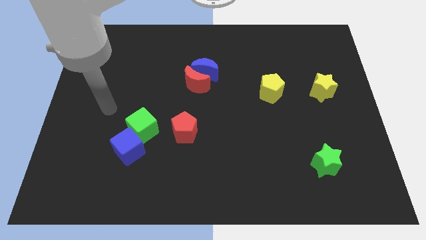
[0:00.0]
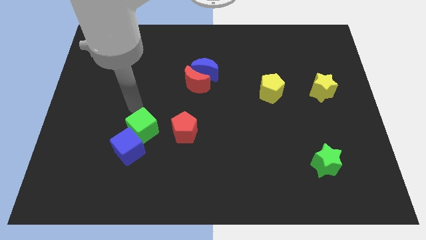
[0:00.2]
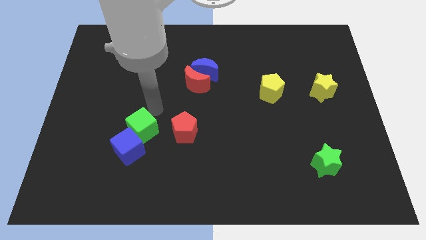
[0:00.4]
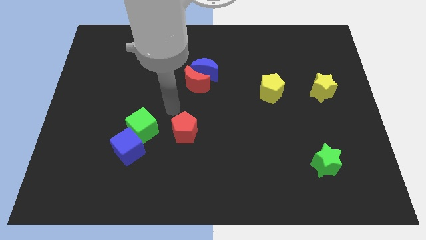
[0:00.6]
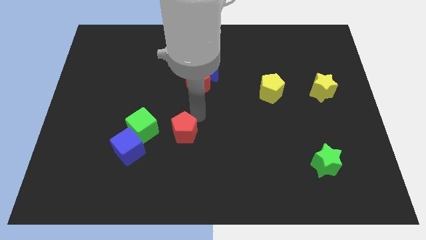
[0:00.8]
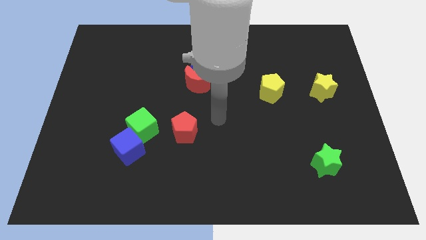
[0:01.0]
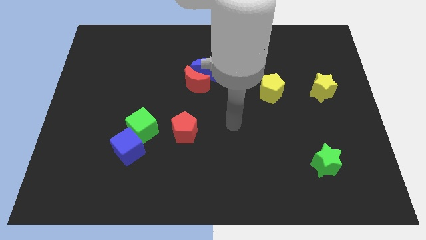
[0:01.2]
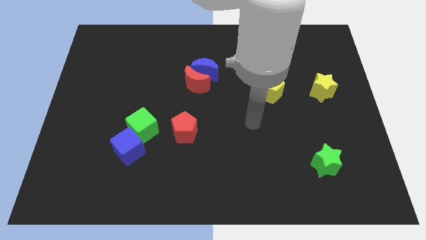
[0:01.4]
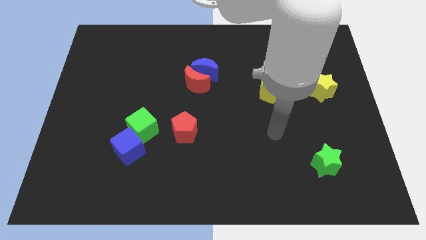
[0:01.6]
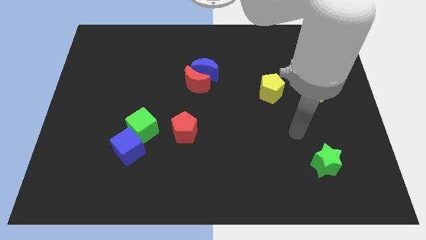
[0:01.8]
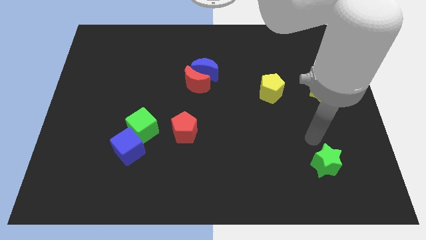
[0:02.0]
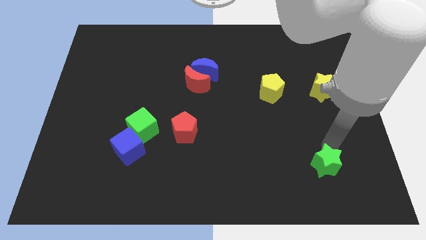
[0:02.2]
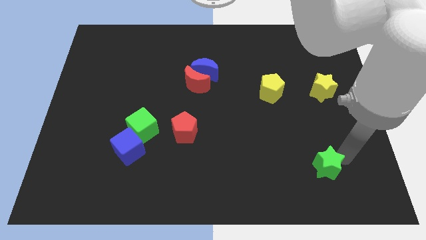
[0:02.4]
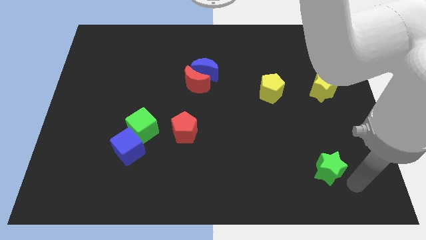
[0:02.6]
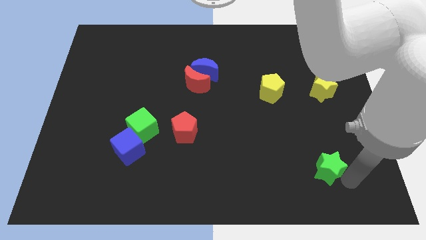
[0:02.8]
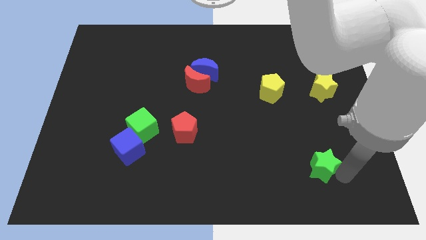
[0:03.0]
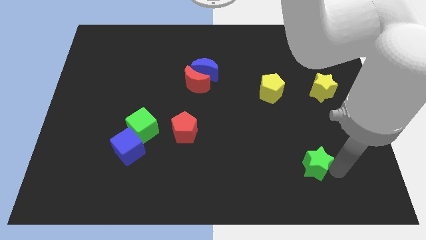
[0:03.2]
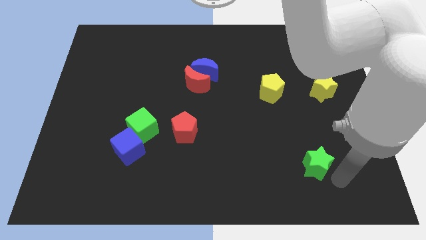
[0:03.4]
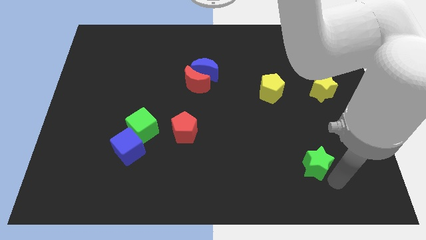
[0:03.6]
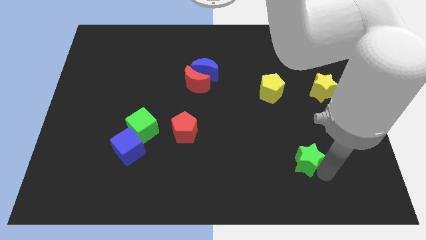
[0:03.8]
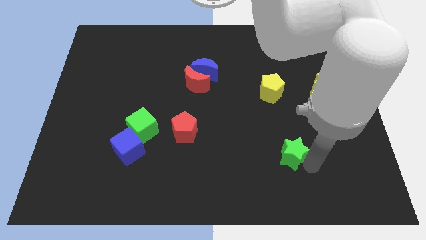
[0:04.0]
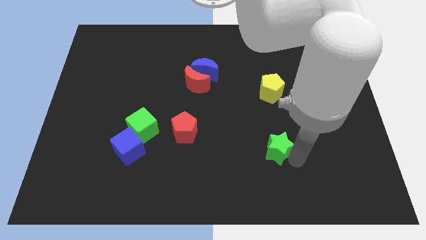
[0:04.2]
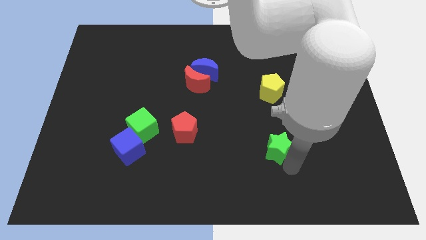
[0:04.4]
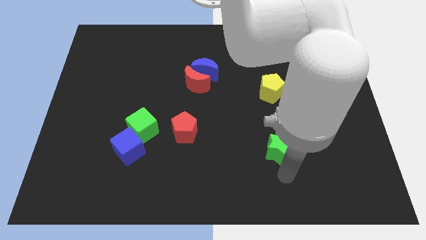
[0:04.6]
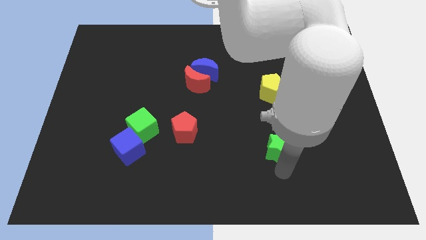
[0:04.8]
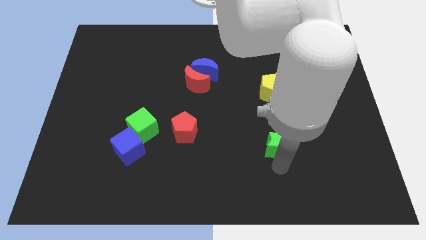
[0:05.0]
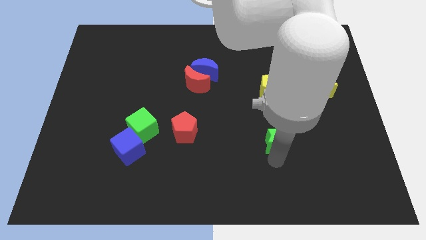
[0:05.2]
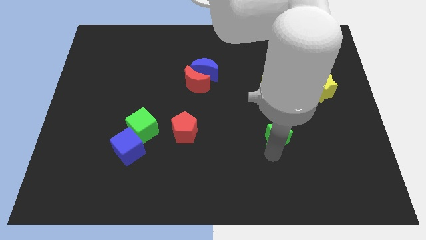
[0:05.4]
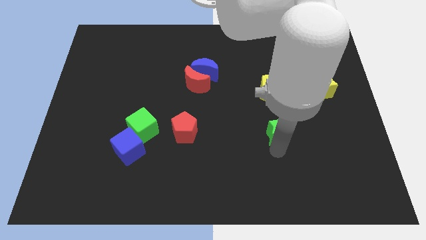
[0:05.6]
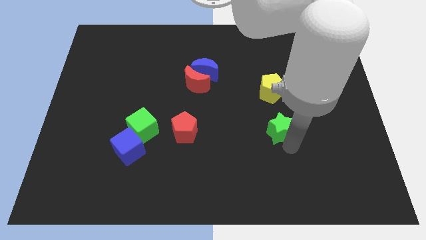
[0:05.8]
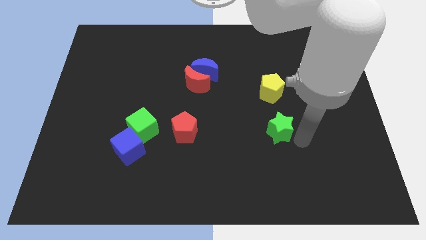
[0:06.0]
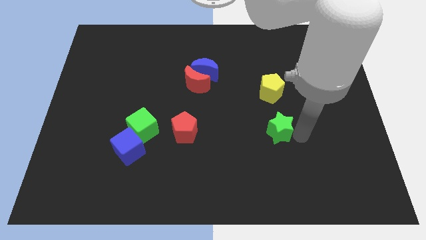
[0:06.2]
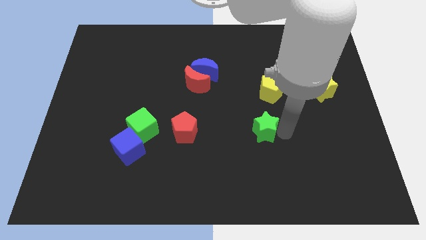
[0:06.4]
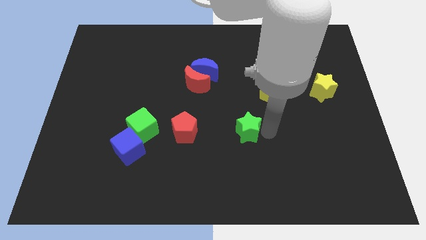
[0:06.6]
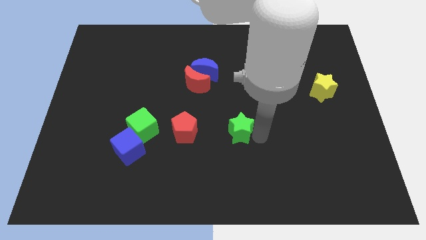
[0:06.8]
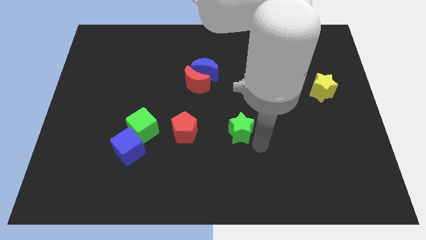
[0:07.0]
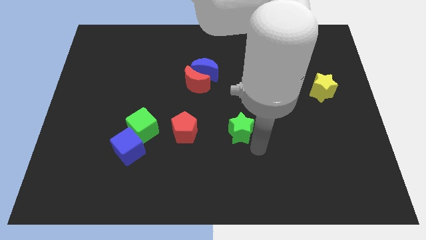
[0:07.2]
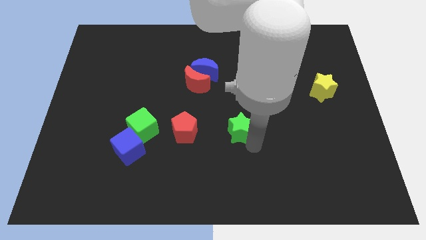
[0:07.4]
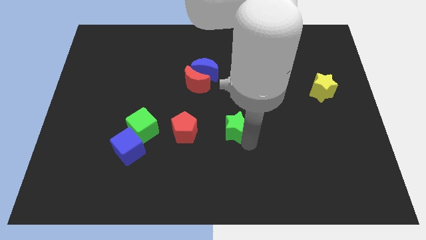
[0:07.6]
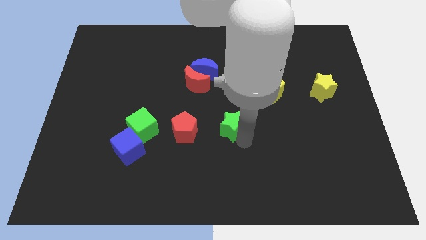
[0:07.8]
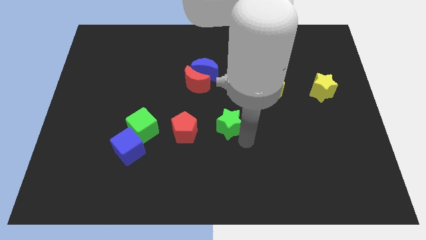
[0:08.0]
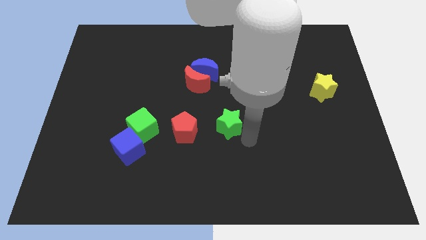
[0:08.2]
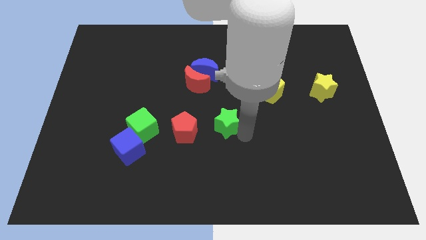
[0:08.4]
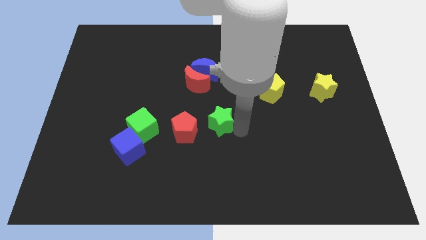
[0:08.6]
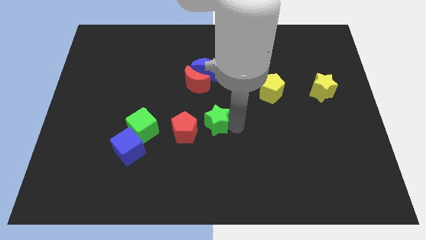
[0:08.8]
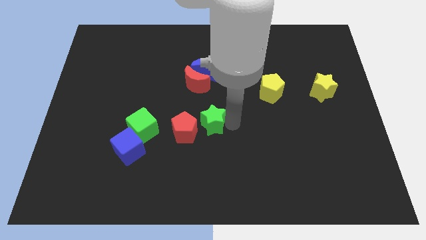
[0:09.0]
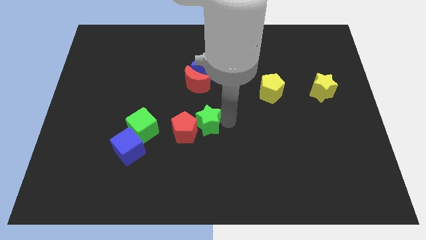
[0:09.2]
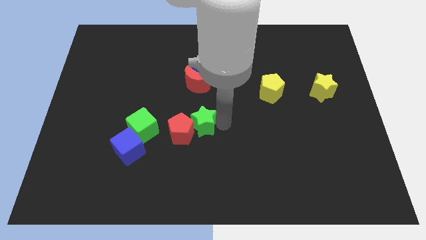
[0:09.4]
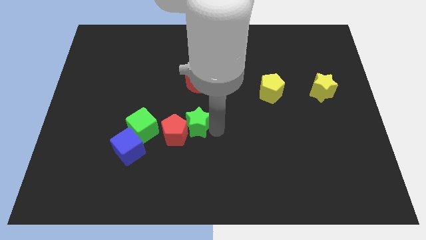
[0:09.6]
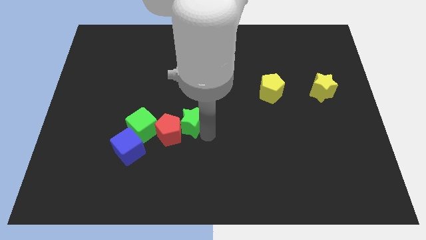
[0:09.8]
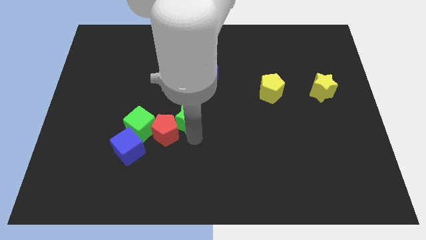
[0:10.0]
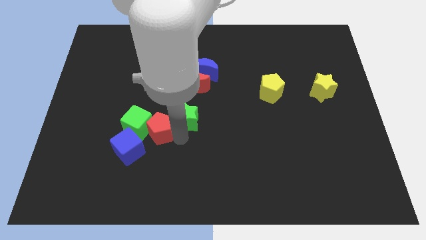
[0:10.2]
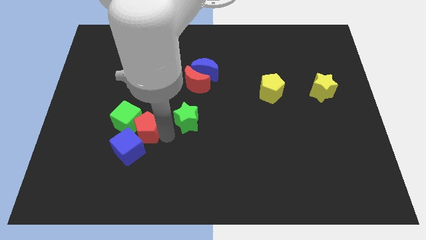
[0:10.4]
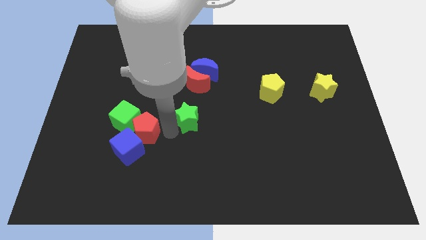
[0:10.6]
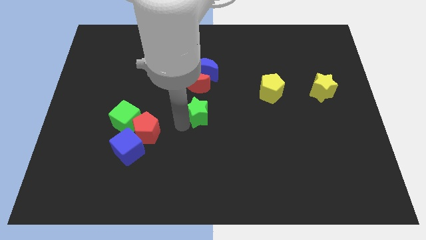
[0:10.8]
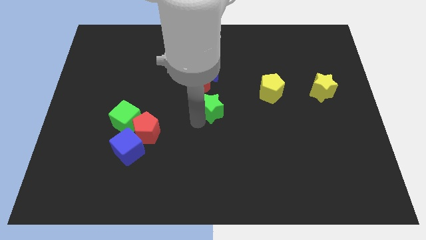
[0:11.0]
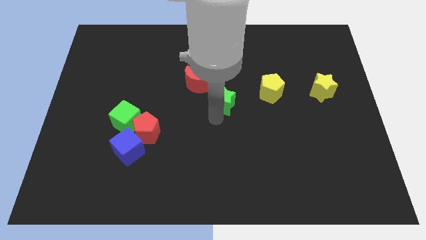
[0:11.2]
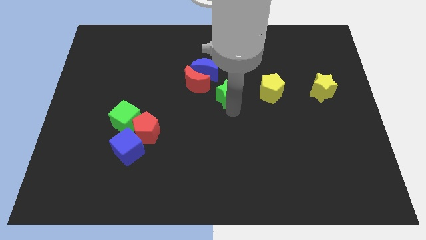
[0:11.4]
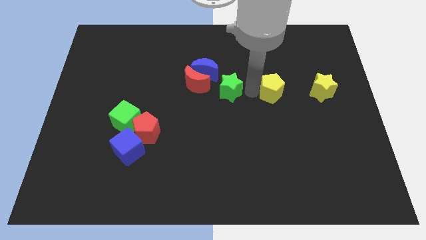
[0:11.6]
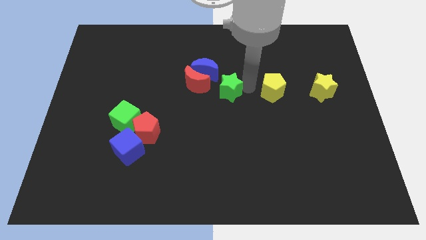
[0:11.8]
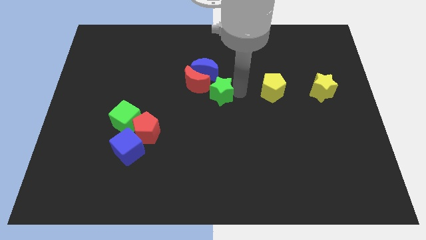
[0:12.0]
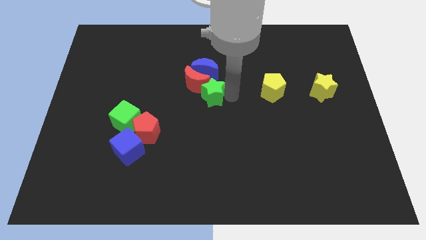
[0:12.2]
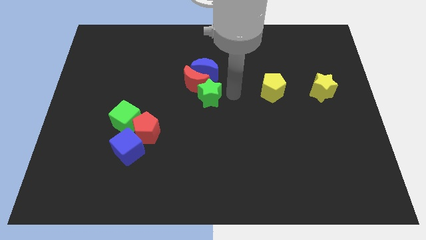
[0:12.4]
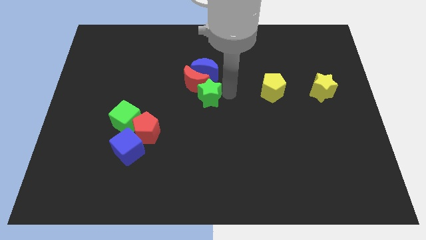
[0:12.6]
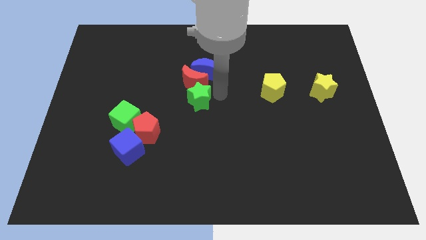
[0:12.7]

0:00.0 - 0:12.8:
push the green star to the bottom left side of the red moon

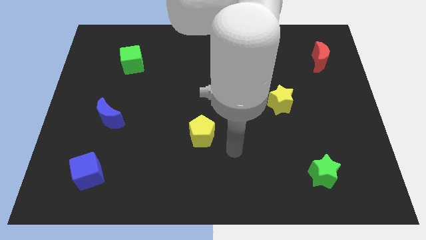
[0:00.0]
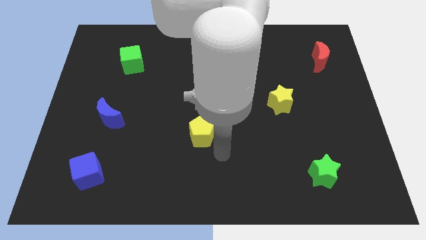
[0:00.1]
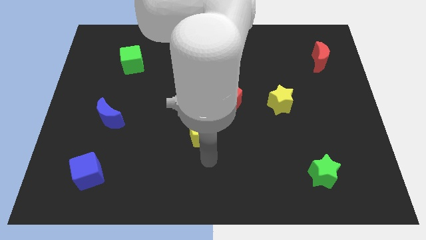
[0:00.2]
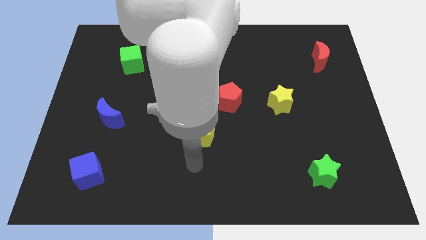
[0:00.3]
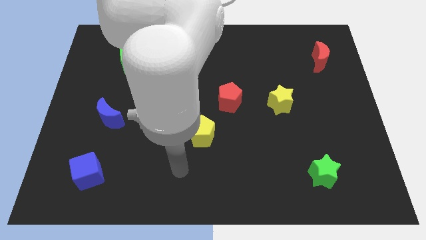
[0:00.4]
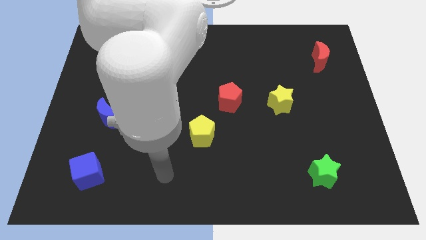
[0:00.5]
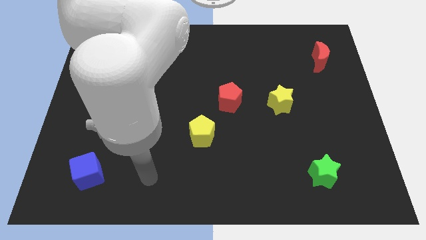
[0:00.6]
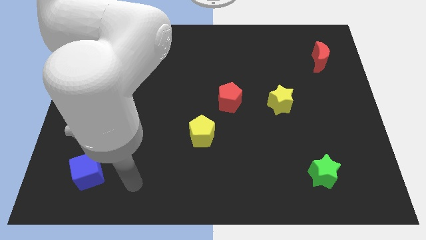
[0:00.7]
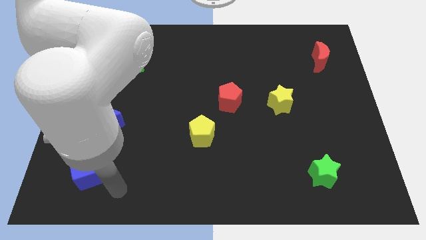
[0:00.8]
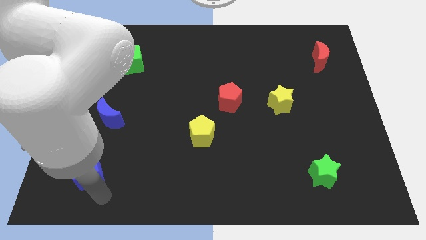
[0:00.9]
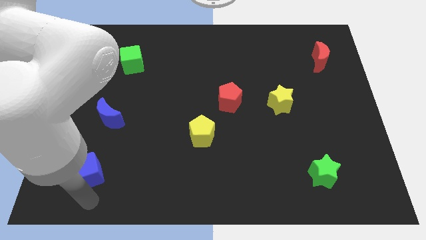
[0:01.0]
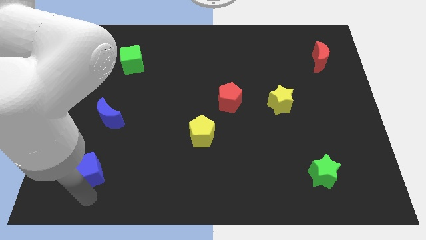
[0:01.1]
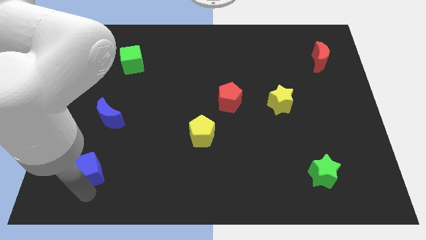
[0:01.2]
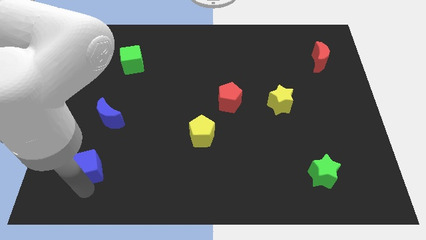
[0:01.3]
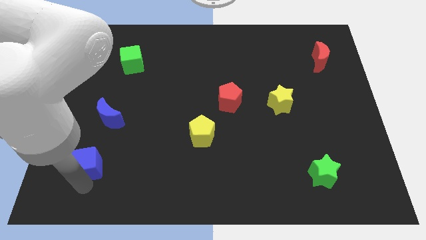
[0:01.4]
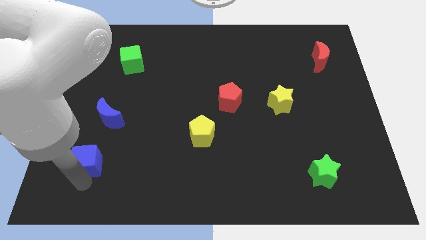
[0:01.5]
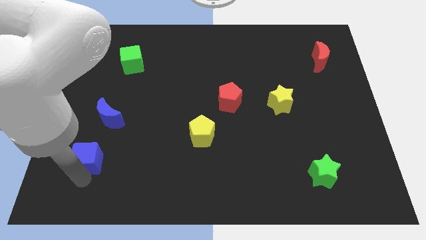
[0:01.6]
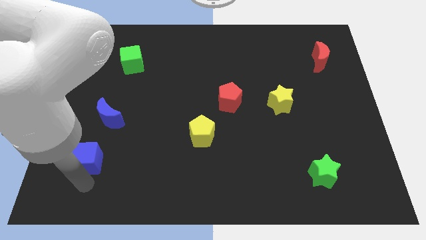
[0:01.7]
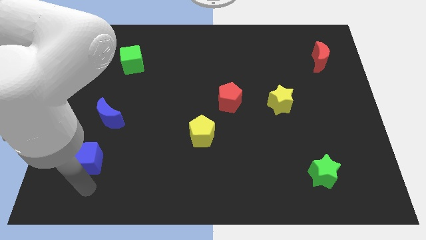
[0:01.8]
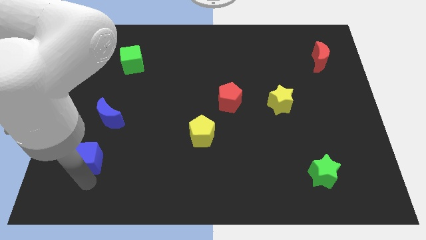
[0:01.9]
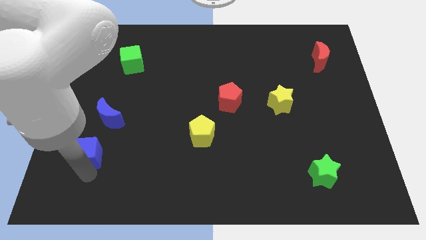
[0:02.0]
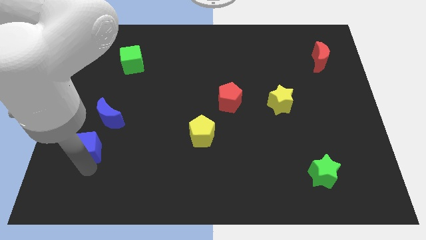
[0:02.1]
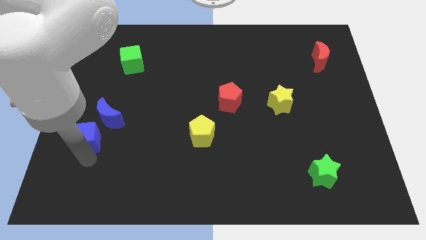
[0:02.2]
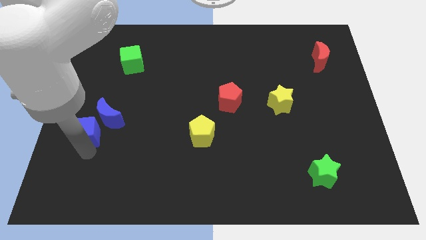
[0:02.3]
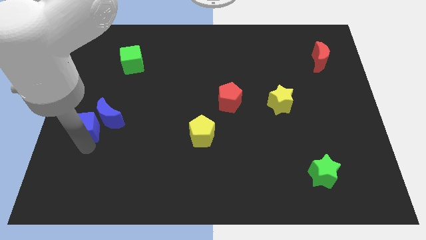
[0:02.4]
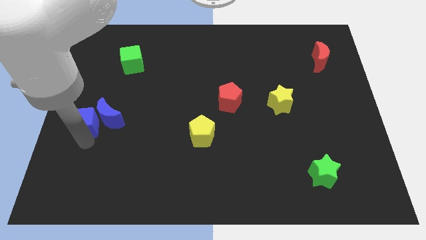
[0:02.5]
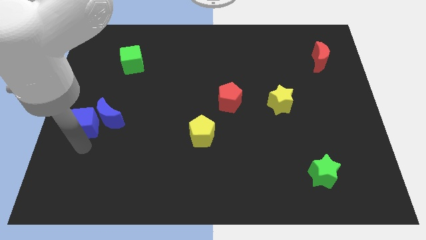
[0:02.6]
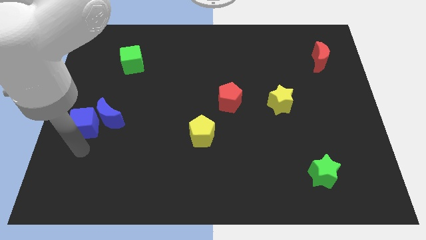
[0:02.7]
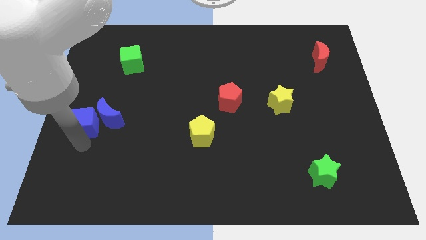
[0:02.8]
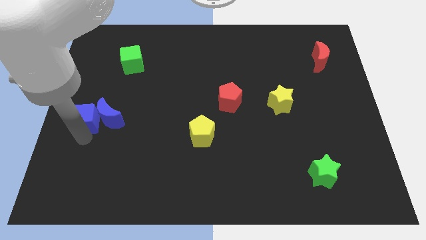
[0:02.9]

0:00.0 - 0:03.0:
slide the blue cube to the top left of the blue moon
